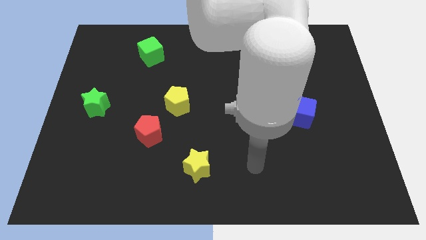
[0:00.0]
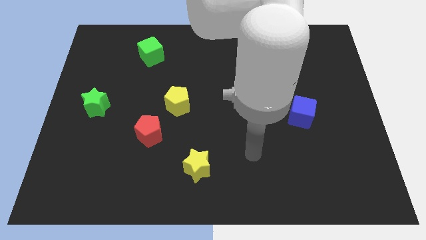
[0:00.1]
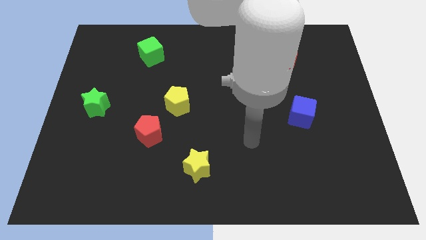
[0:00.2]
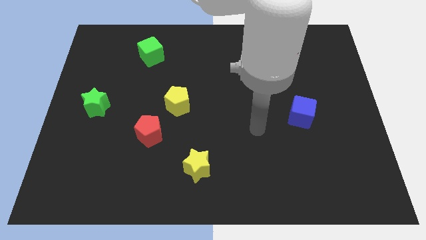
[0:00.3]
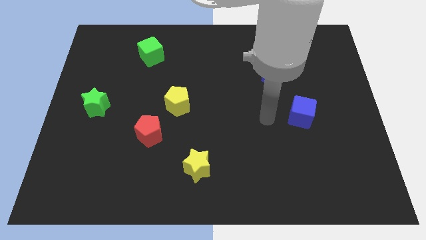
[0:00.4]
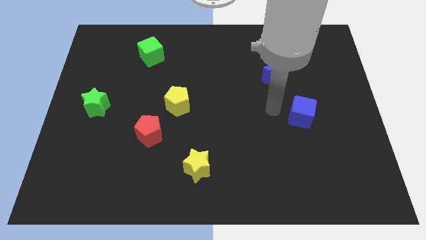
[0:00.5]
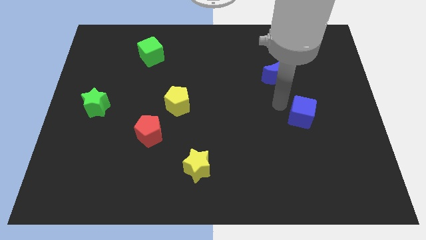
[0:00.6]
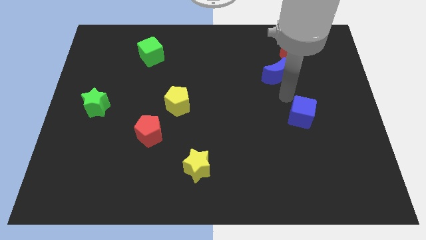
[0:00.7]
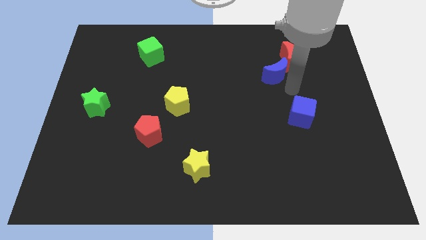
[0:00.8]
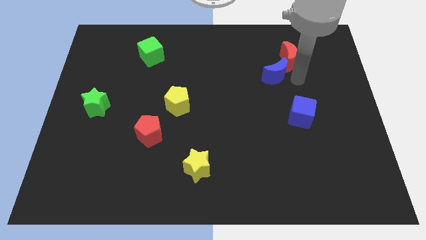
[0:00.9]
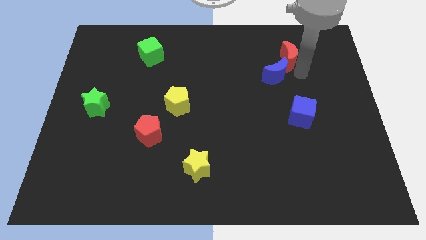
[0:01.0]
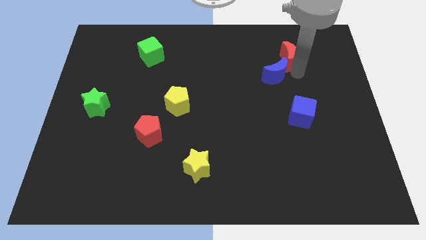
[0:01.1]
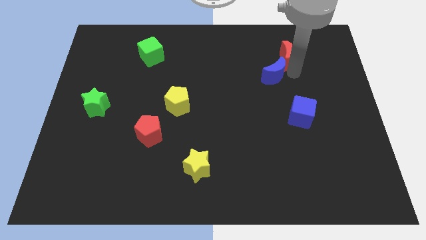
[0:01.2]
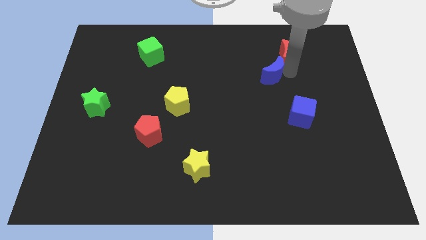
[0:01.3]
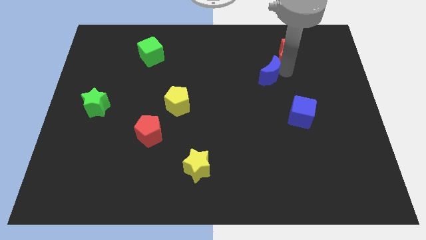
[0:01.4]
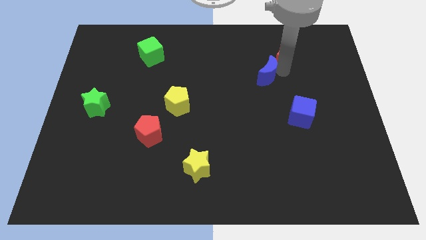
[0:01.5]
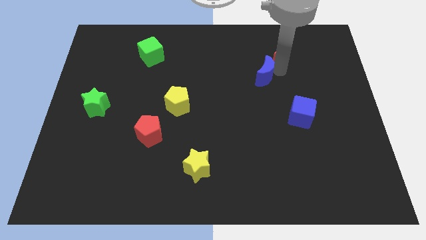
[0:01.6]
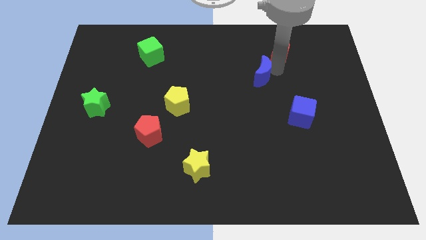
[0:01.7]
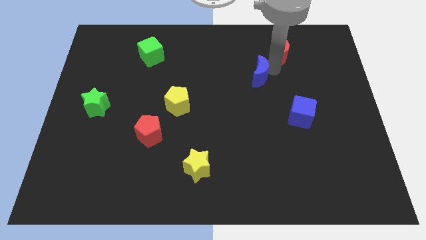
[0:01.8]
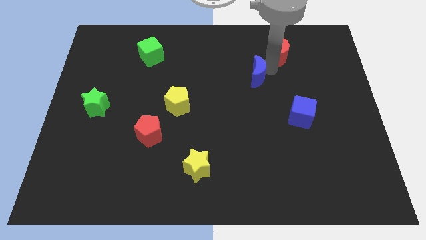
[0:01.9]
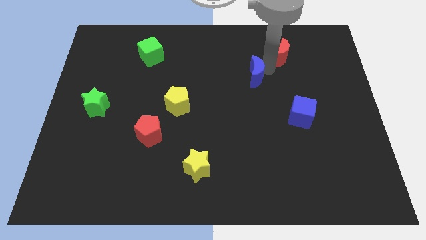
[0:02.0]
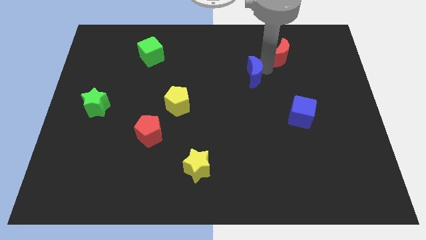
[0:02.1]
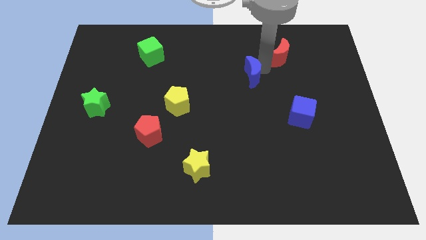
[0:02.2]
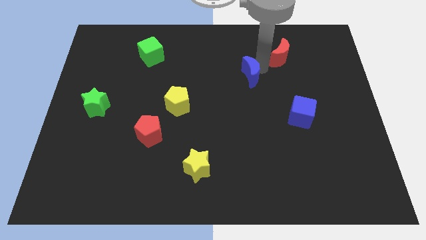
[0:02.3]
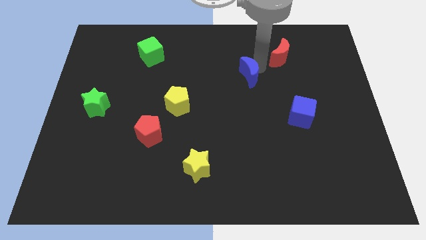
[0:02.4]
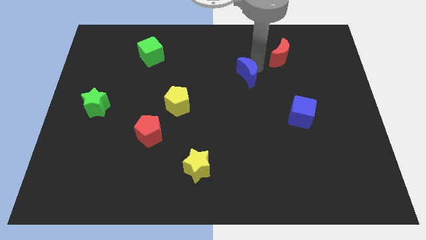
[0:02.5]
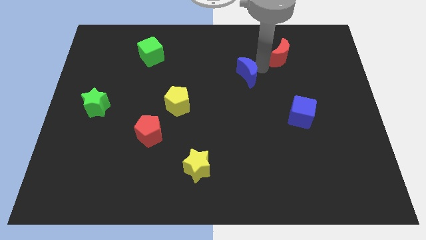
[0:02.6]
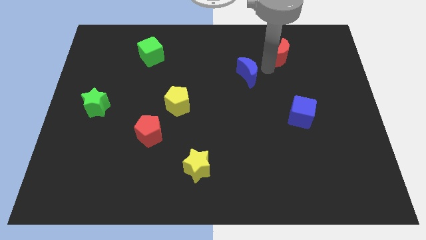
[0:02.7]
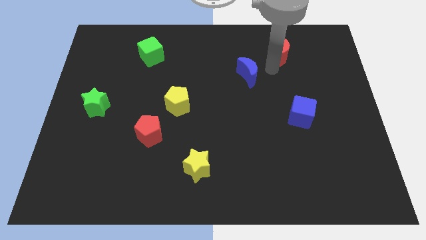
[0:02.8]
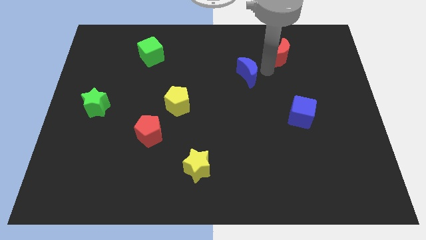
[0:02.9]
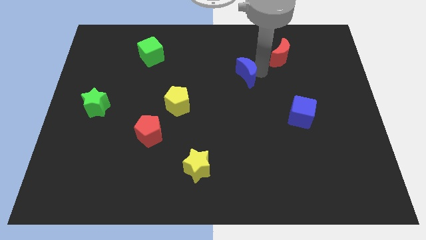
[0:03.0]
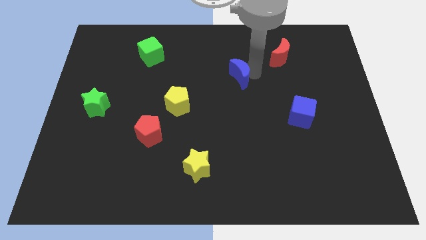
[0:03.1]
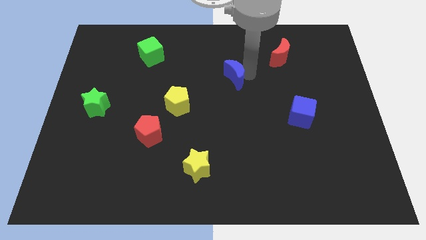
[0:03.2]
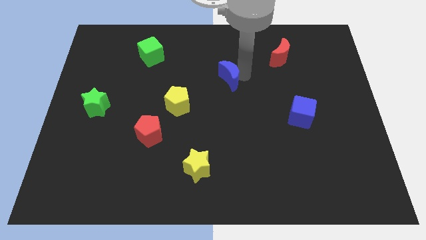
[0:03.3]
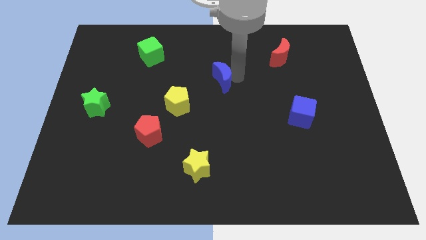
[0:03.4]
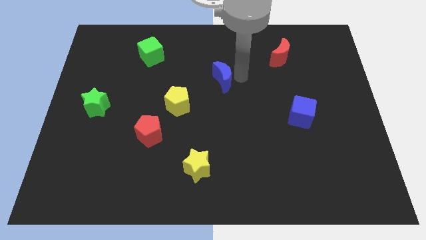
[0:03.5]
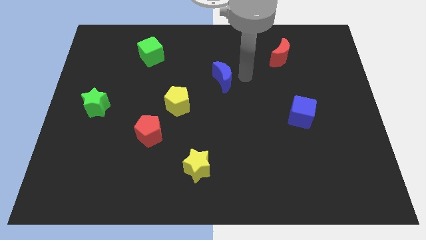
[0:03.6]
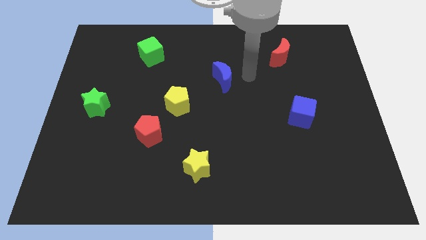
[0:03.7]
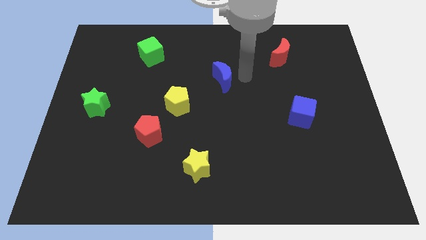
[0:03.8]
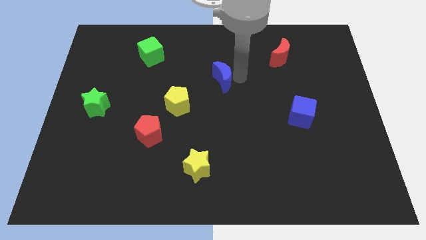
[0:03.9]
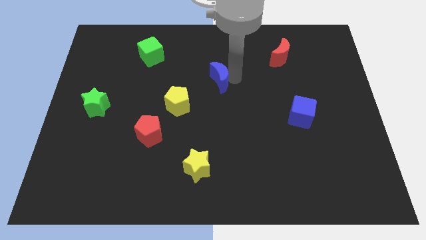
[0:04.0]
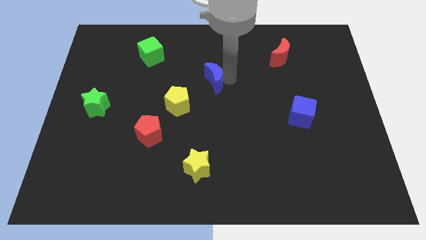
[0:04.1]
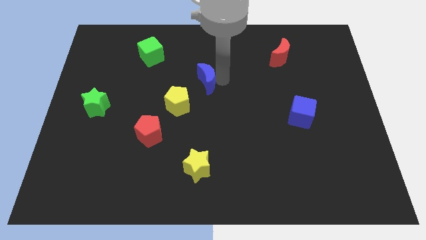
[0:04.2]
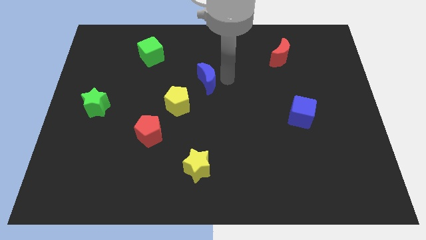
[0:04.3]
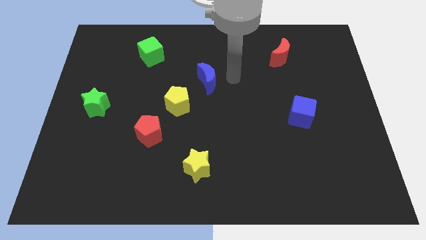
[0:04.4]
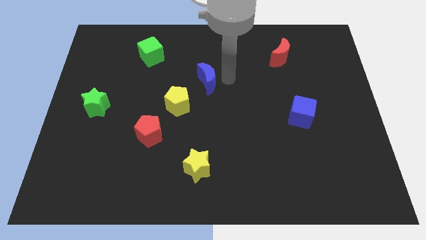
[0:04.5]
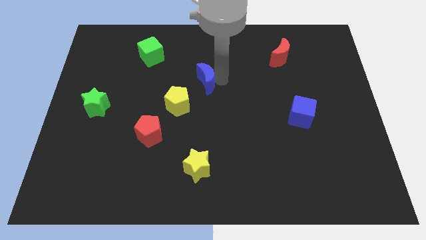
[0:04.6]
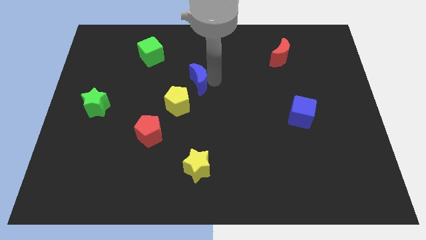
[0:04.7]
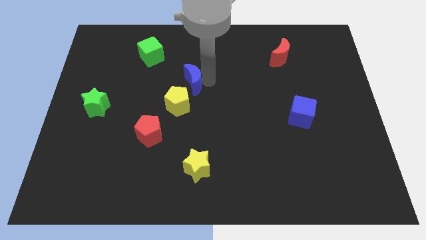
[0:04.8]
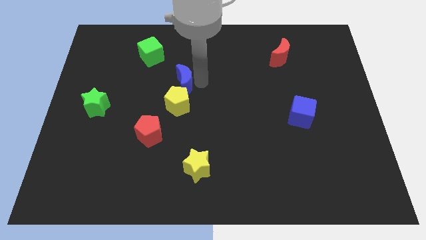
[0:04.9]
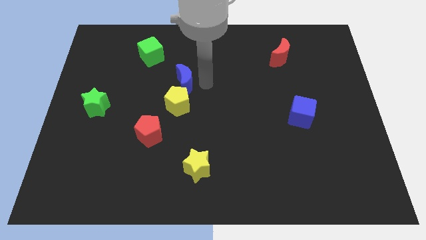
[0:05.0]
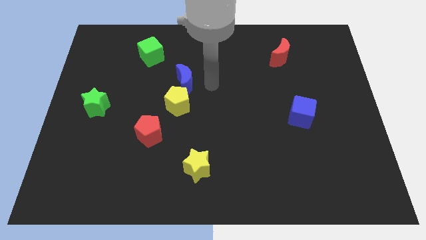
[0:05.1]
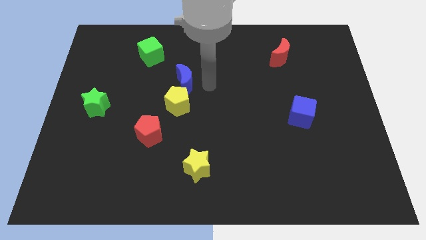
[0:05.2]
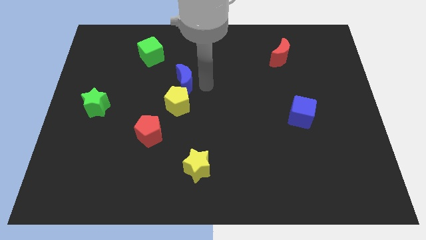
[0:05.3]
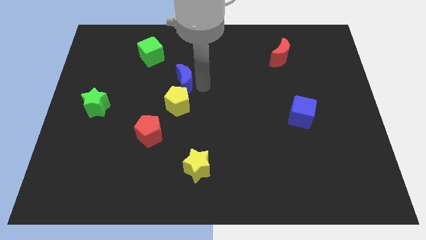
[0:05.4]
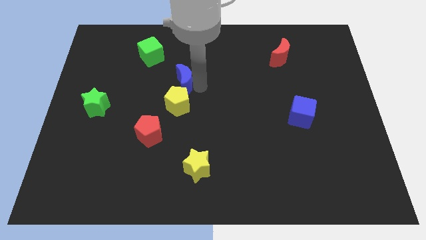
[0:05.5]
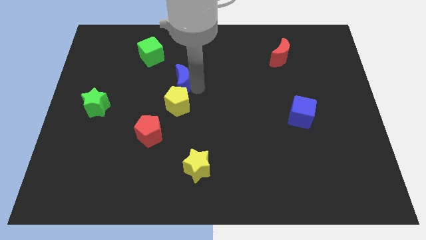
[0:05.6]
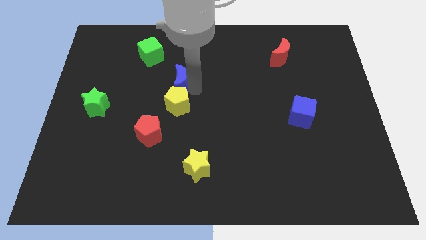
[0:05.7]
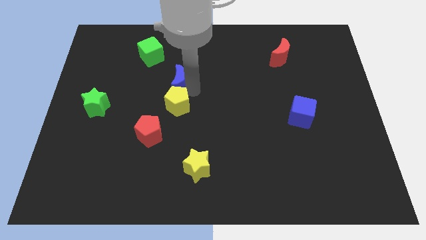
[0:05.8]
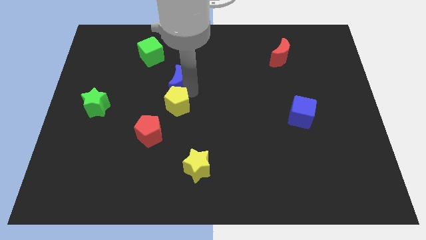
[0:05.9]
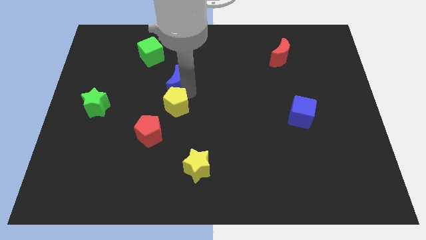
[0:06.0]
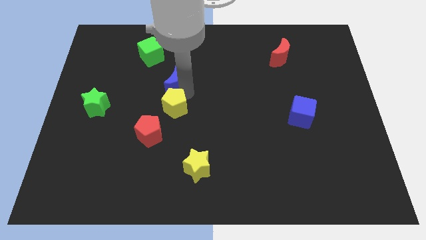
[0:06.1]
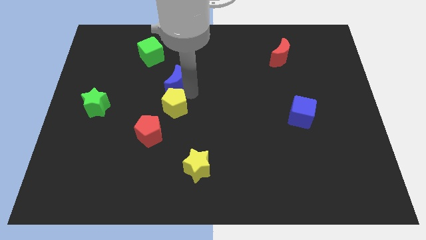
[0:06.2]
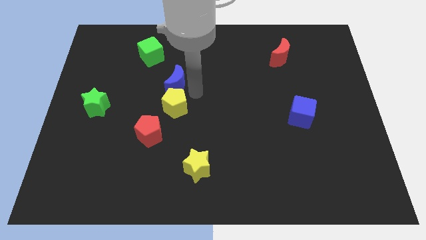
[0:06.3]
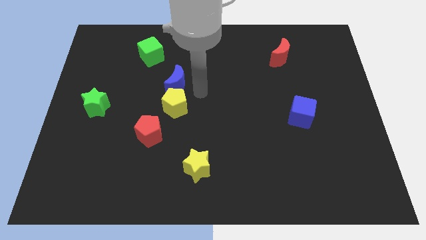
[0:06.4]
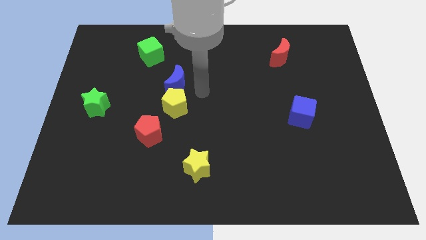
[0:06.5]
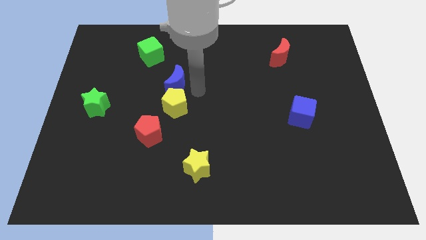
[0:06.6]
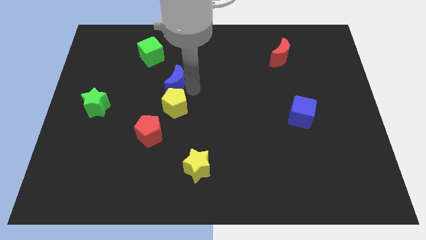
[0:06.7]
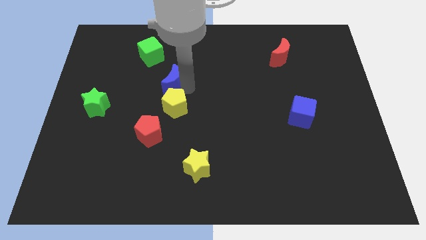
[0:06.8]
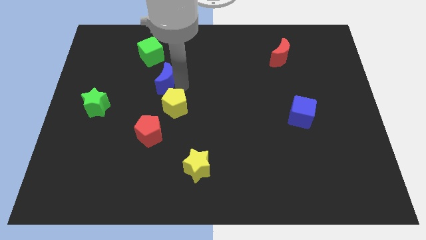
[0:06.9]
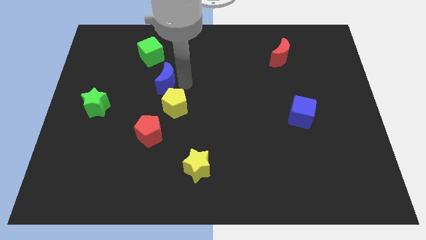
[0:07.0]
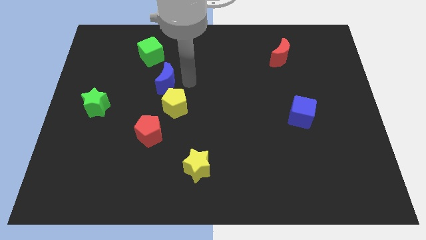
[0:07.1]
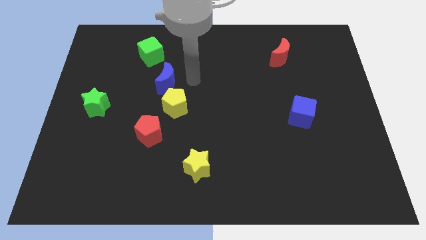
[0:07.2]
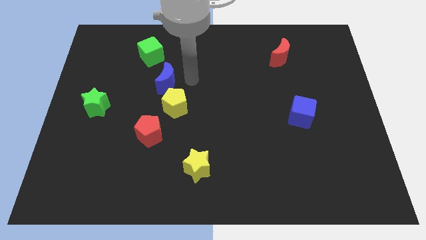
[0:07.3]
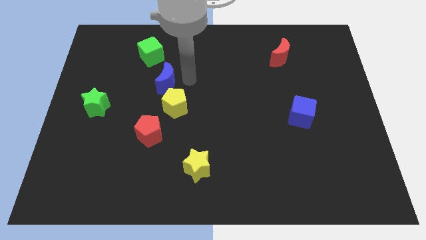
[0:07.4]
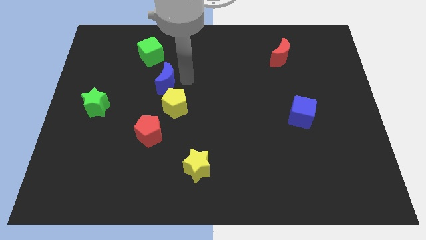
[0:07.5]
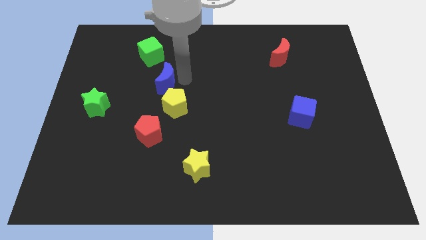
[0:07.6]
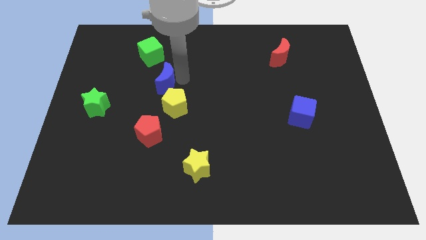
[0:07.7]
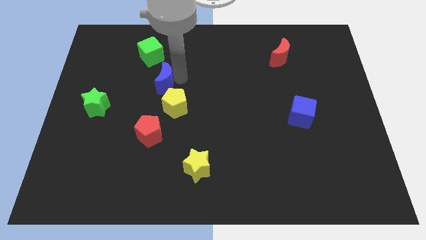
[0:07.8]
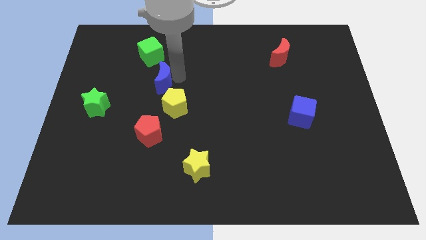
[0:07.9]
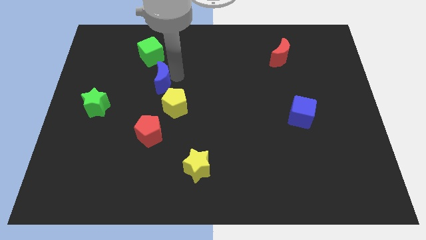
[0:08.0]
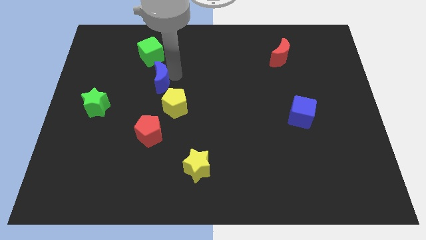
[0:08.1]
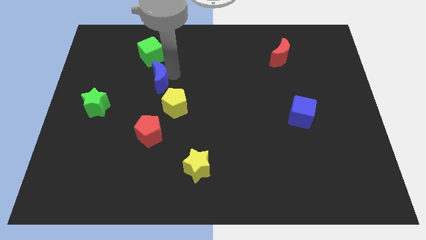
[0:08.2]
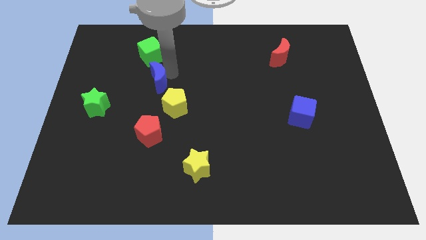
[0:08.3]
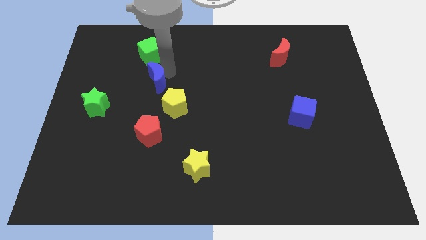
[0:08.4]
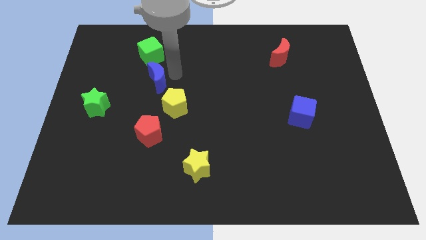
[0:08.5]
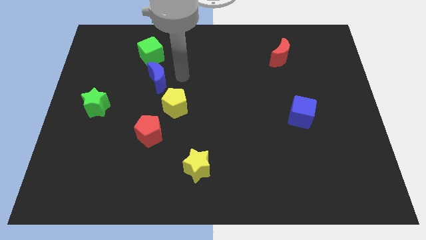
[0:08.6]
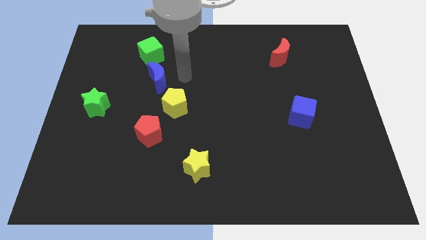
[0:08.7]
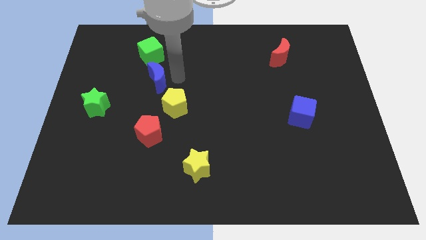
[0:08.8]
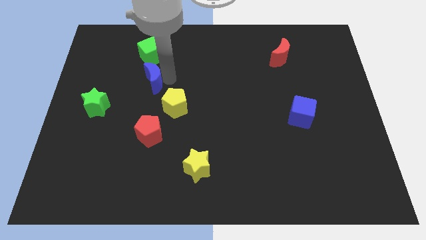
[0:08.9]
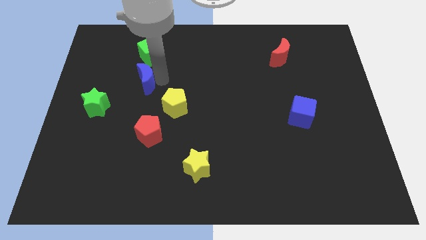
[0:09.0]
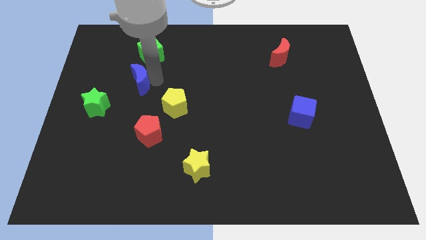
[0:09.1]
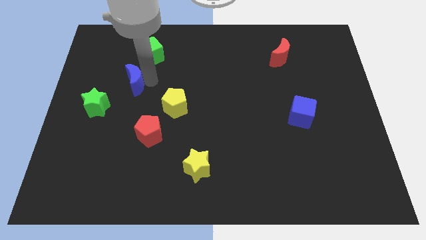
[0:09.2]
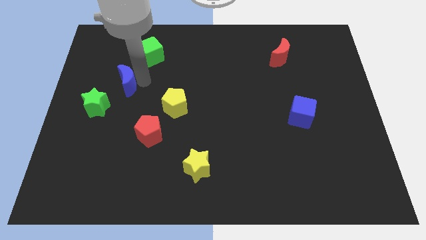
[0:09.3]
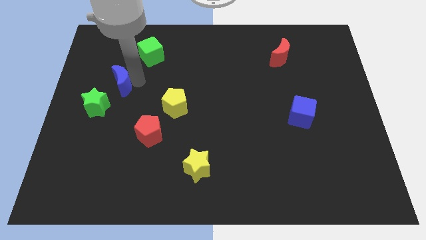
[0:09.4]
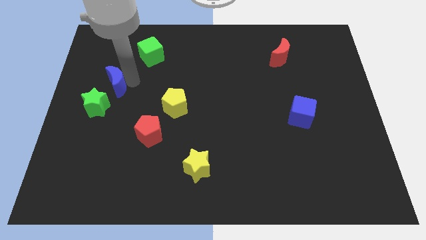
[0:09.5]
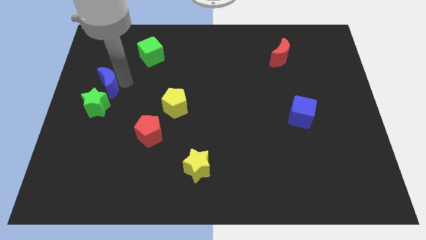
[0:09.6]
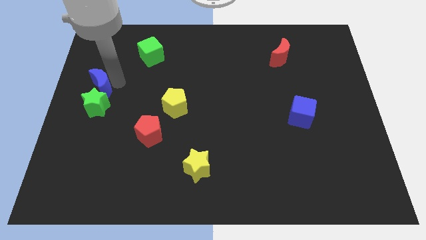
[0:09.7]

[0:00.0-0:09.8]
push the blue moon to the left side of the board
